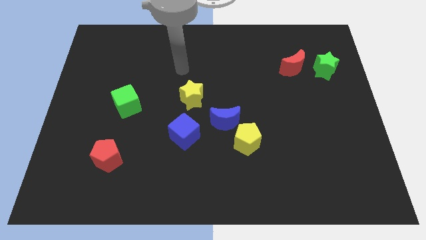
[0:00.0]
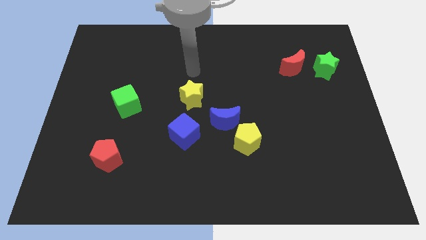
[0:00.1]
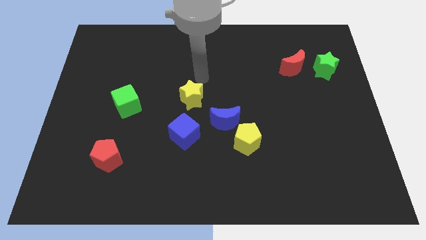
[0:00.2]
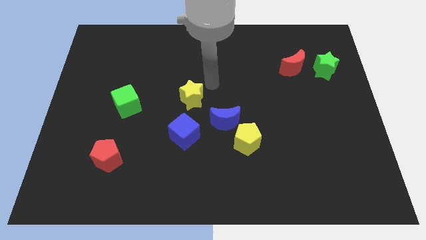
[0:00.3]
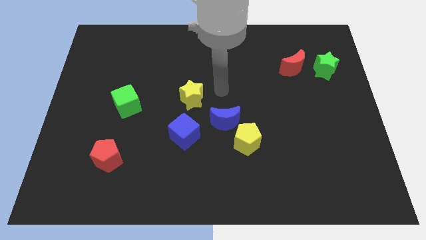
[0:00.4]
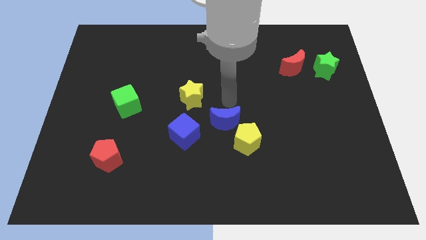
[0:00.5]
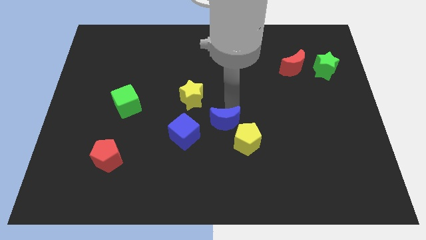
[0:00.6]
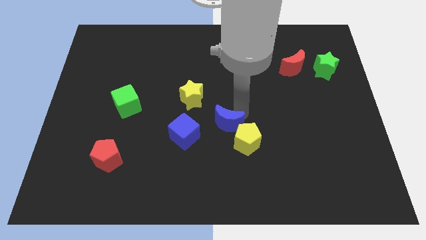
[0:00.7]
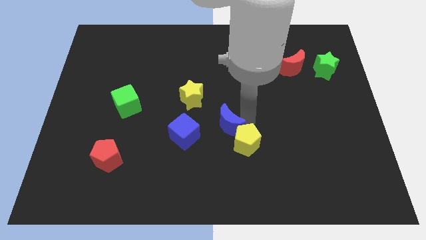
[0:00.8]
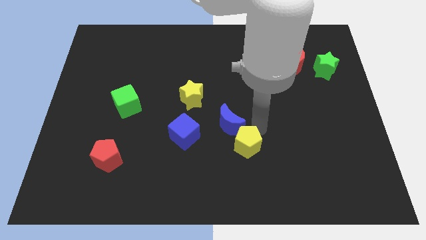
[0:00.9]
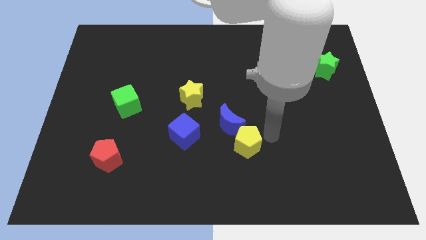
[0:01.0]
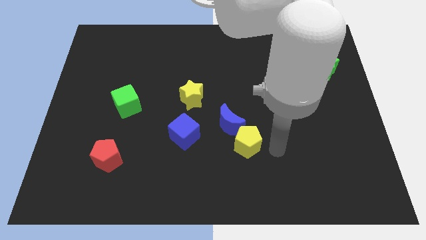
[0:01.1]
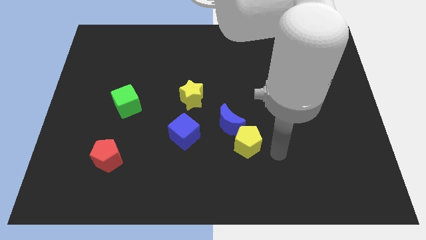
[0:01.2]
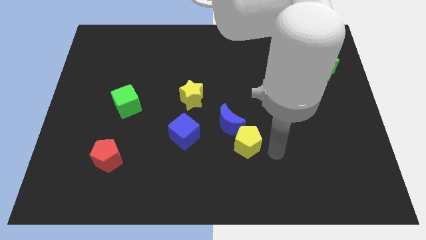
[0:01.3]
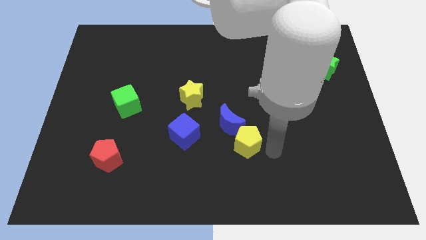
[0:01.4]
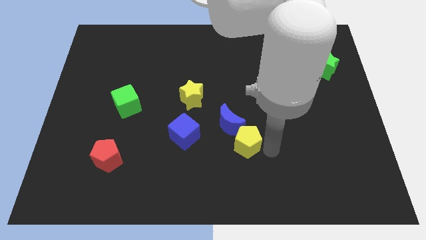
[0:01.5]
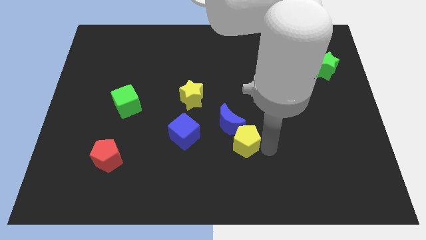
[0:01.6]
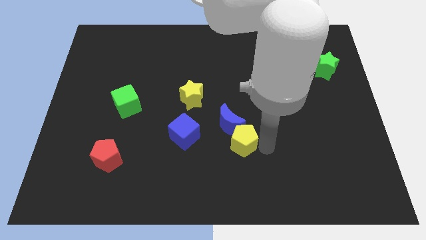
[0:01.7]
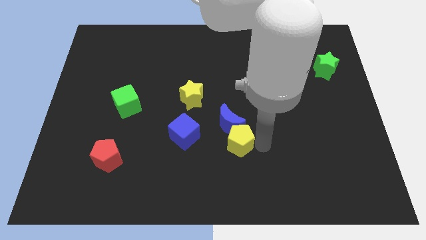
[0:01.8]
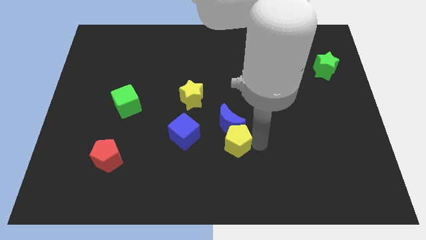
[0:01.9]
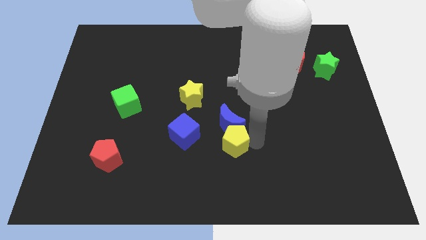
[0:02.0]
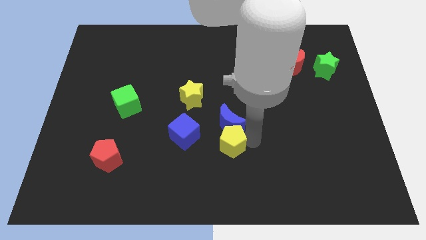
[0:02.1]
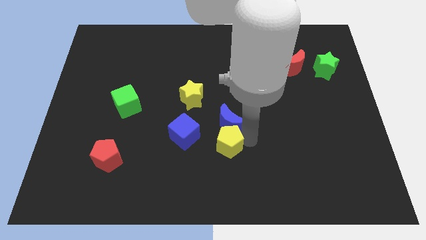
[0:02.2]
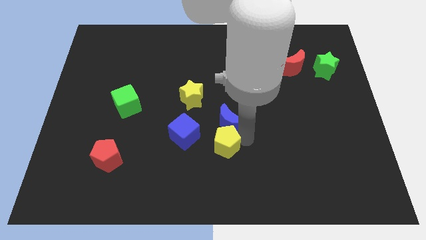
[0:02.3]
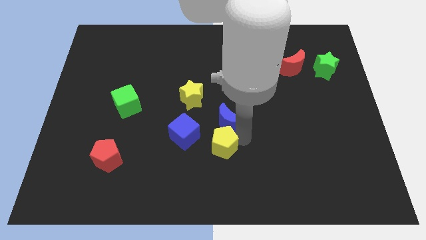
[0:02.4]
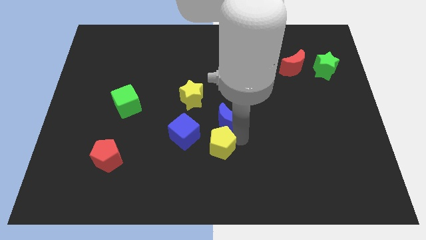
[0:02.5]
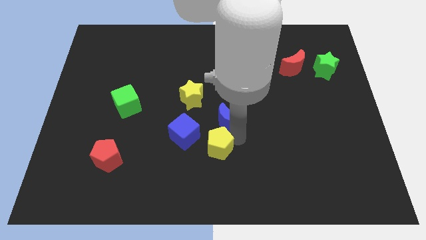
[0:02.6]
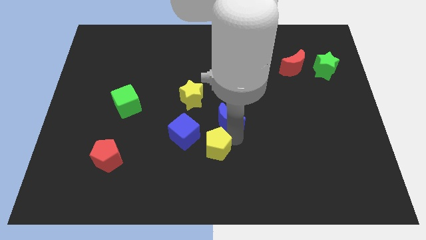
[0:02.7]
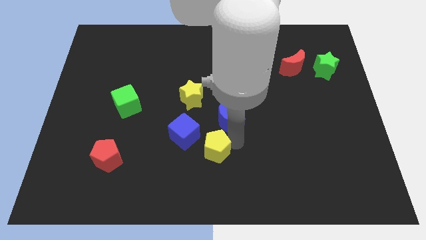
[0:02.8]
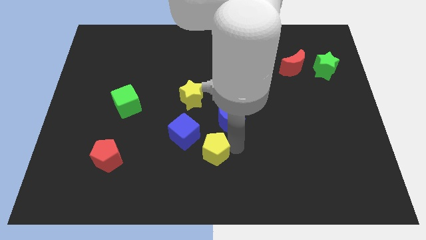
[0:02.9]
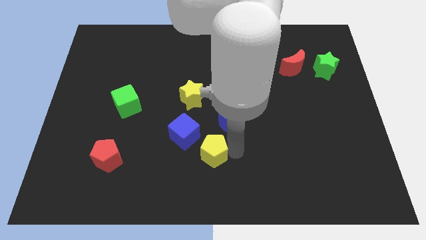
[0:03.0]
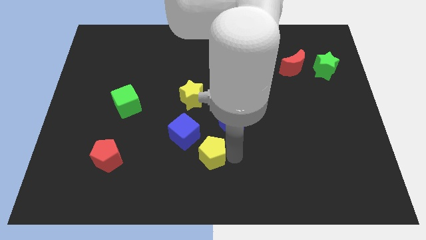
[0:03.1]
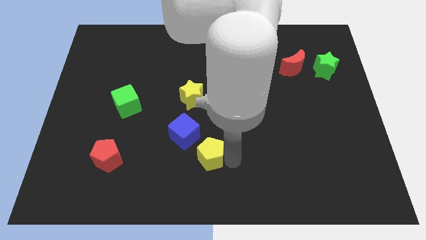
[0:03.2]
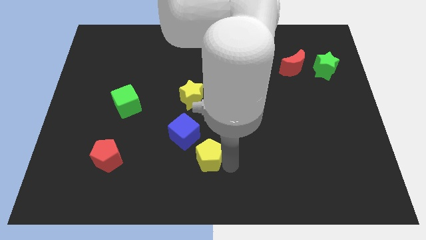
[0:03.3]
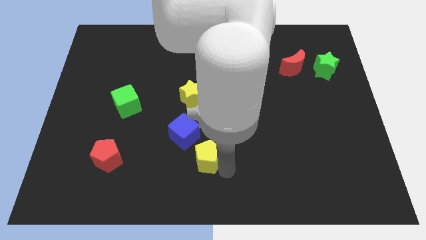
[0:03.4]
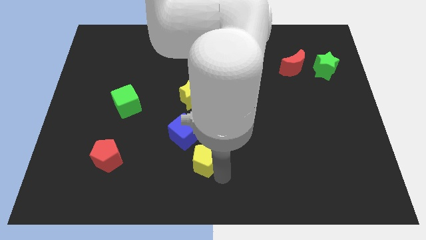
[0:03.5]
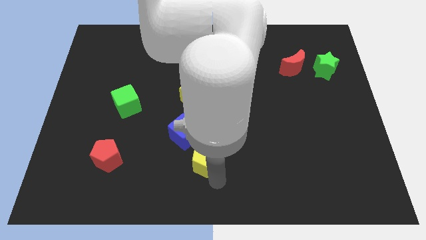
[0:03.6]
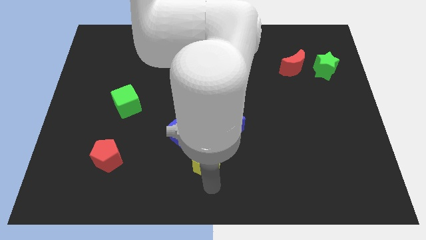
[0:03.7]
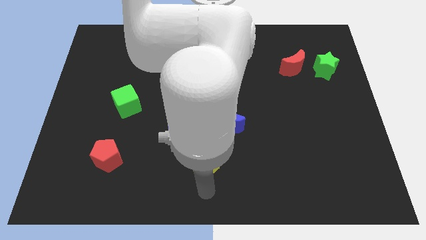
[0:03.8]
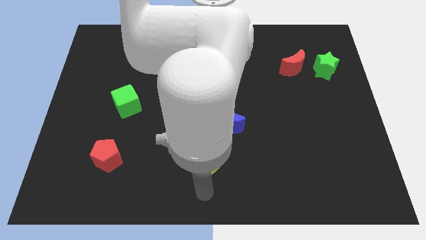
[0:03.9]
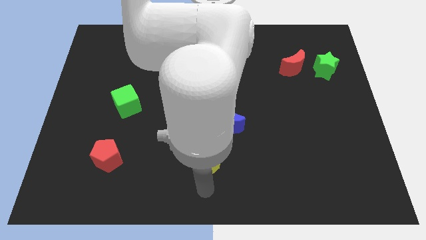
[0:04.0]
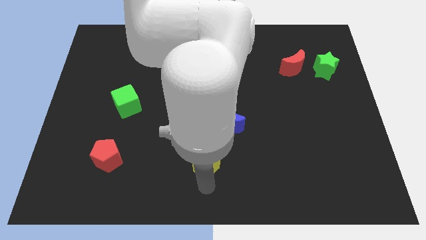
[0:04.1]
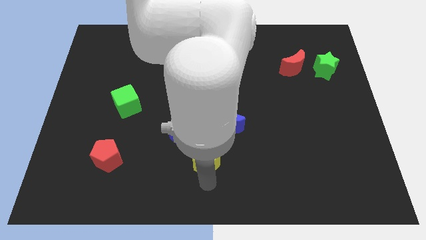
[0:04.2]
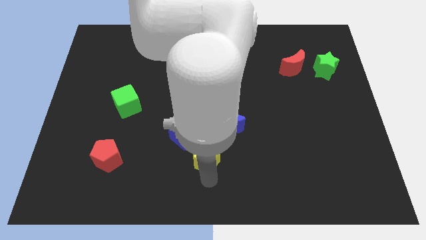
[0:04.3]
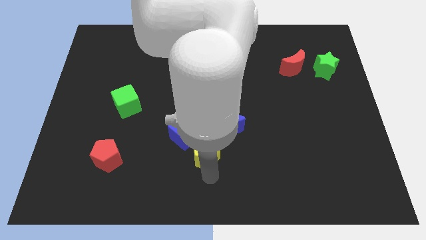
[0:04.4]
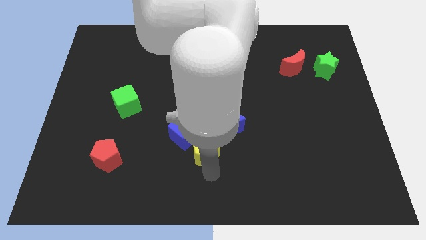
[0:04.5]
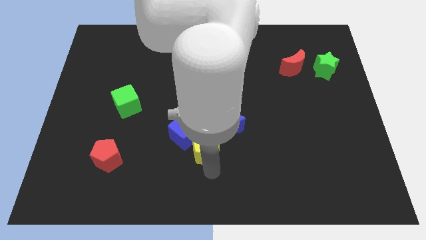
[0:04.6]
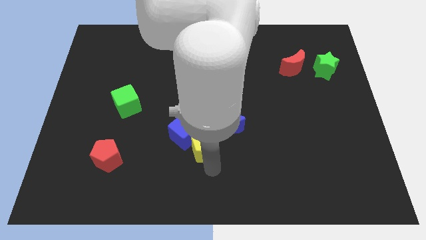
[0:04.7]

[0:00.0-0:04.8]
move the yellow pentagon next to the blue cube

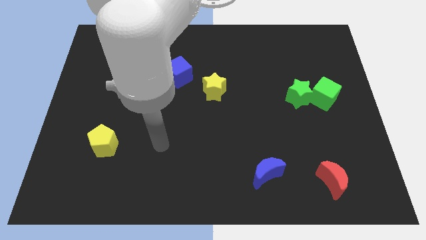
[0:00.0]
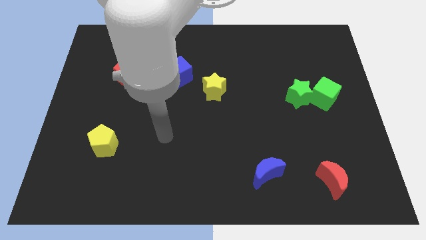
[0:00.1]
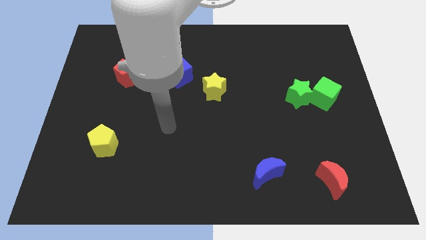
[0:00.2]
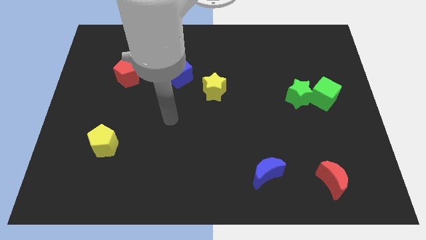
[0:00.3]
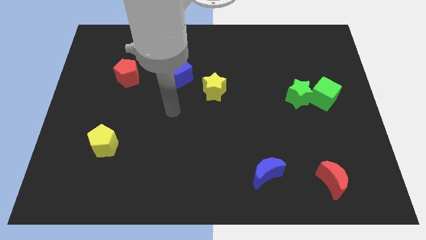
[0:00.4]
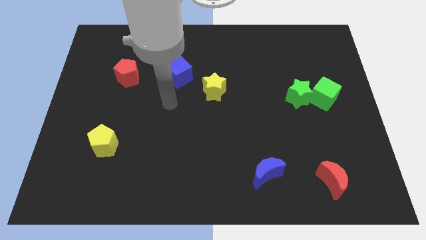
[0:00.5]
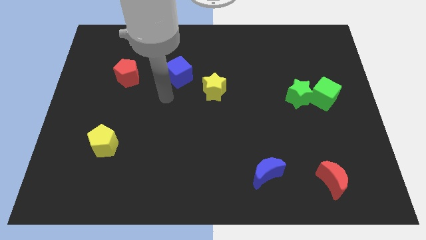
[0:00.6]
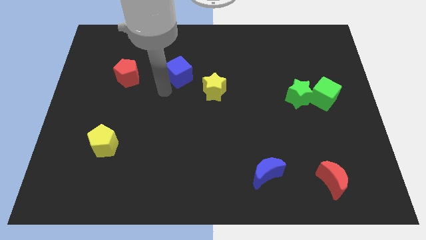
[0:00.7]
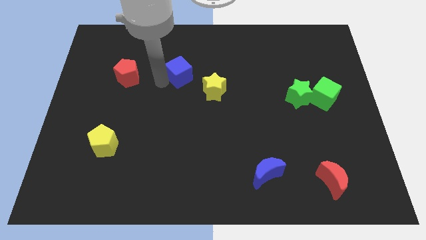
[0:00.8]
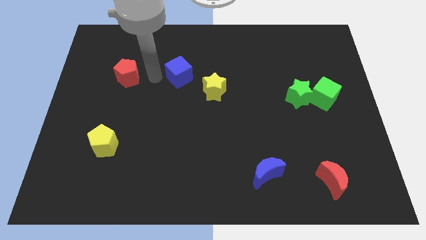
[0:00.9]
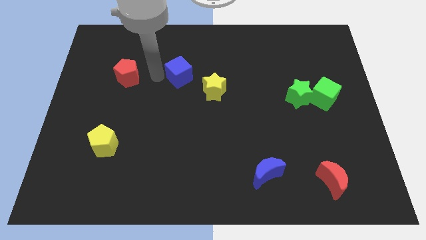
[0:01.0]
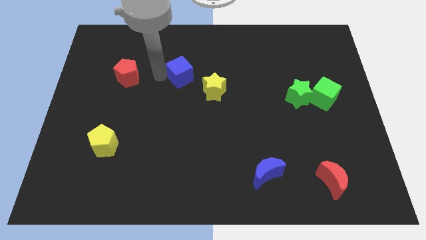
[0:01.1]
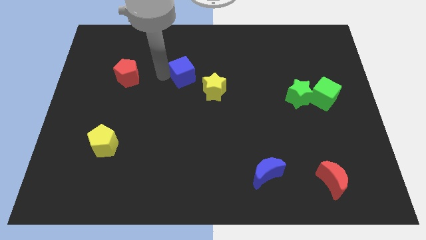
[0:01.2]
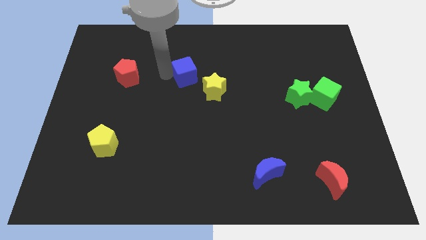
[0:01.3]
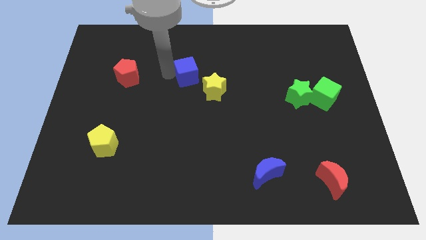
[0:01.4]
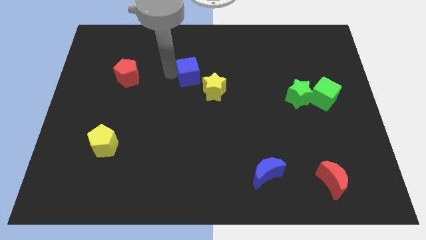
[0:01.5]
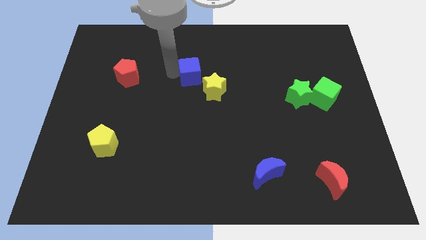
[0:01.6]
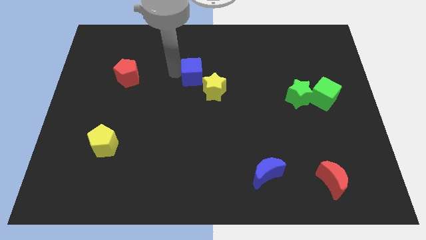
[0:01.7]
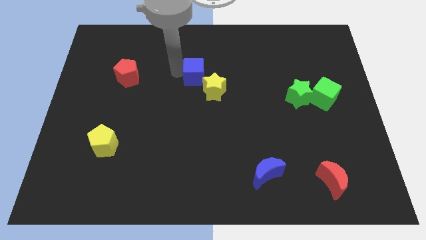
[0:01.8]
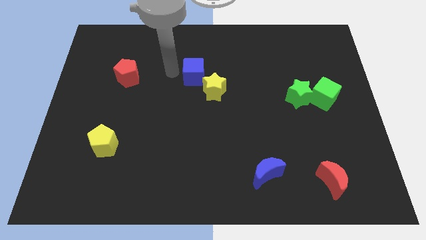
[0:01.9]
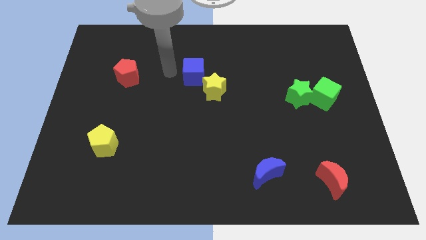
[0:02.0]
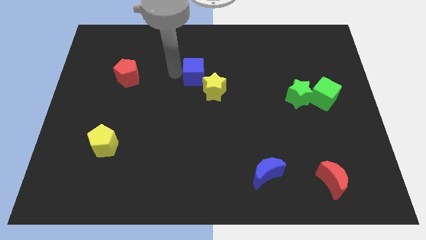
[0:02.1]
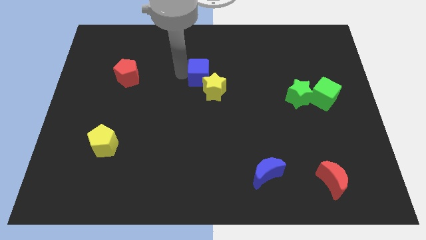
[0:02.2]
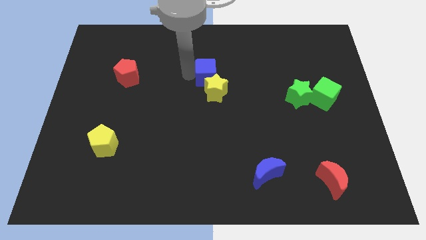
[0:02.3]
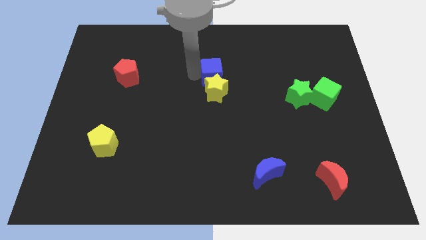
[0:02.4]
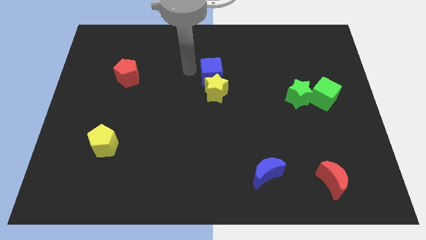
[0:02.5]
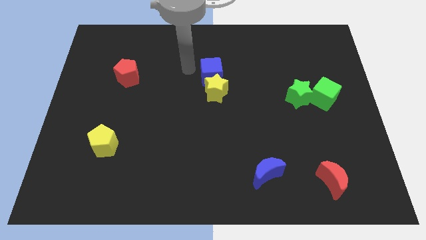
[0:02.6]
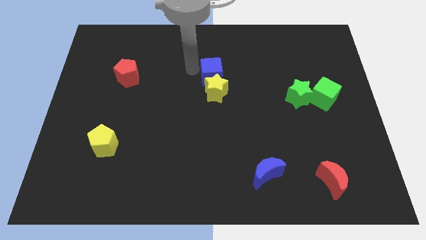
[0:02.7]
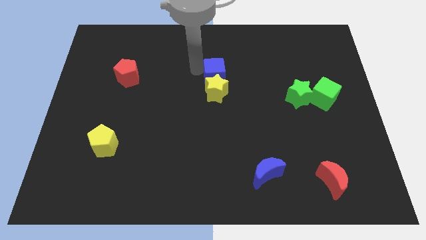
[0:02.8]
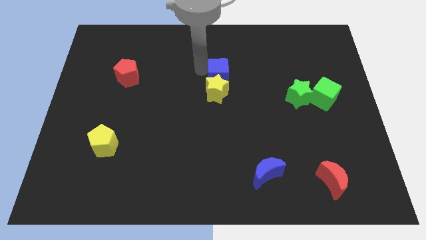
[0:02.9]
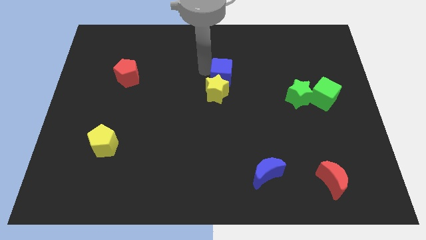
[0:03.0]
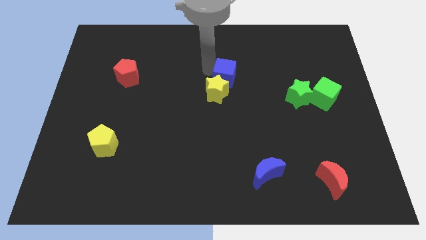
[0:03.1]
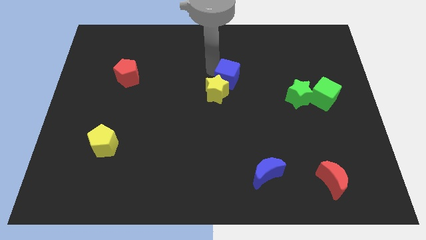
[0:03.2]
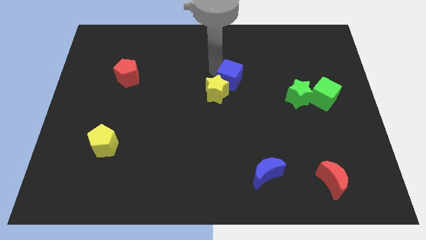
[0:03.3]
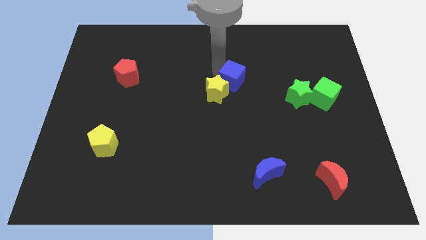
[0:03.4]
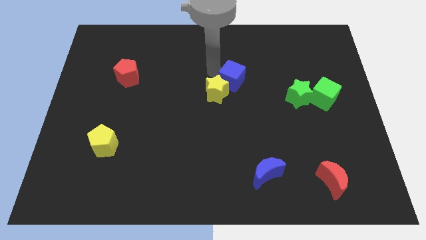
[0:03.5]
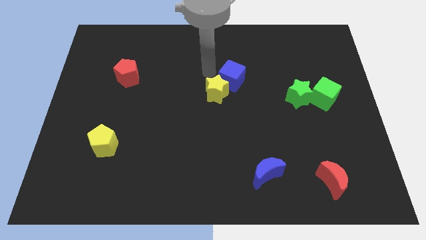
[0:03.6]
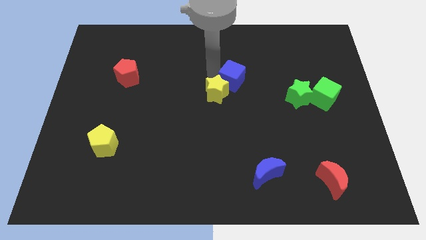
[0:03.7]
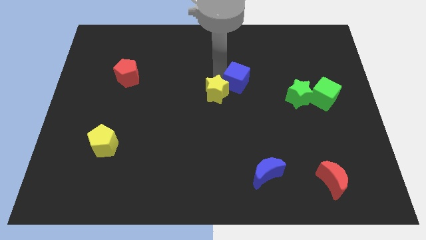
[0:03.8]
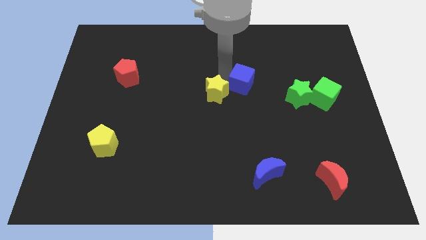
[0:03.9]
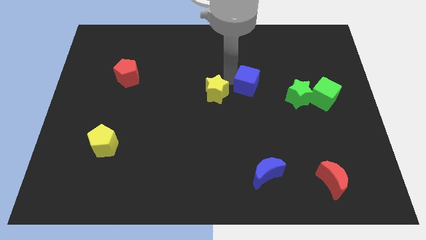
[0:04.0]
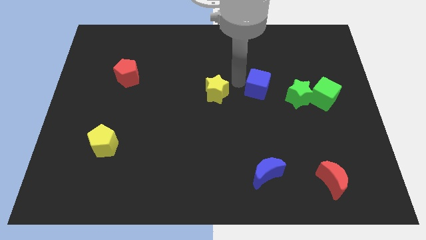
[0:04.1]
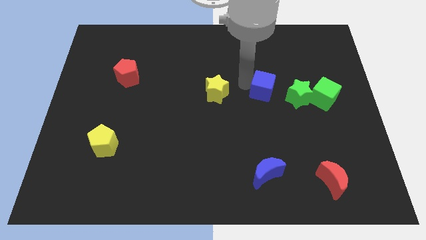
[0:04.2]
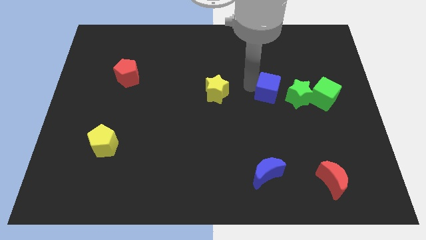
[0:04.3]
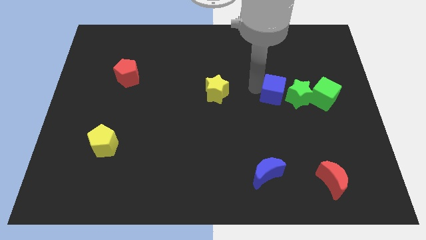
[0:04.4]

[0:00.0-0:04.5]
move the blue cube to the green star
